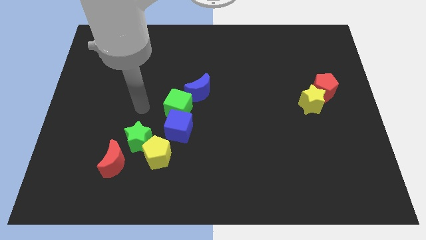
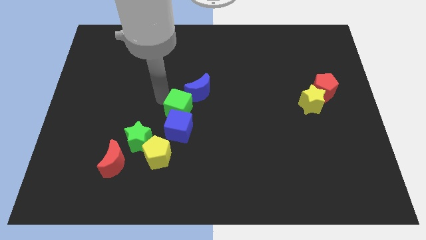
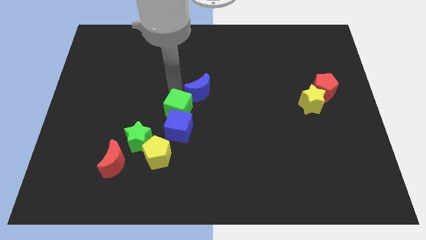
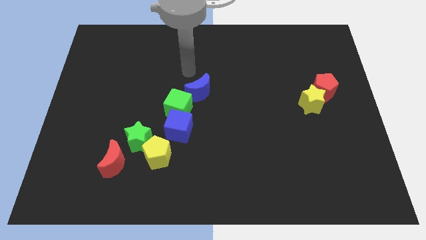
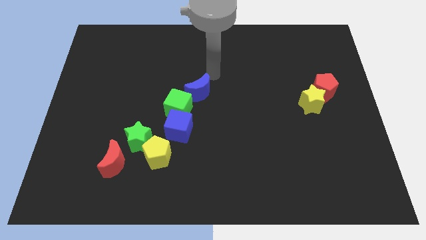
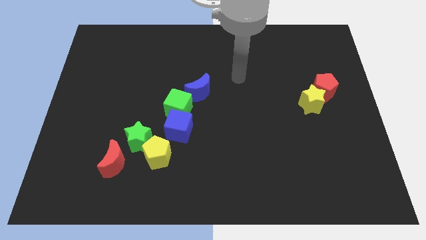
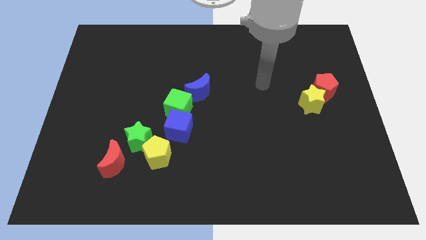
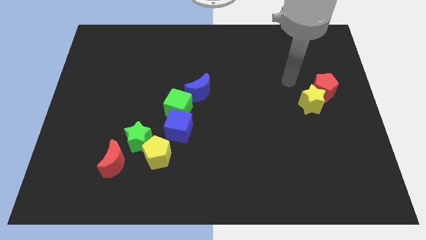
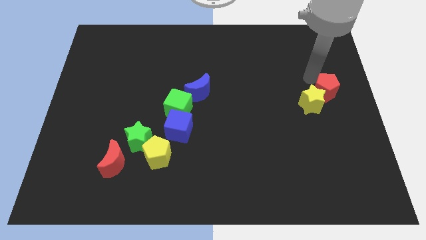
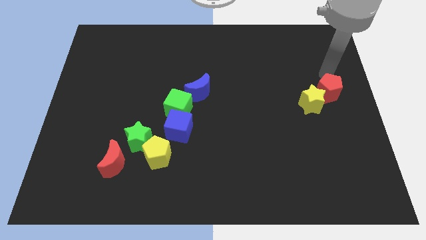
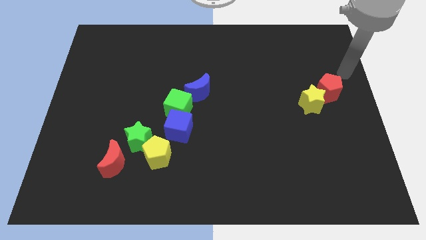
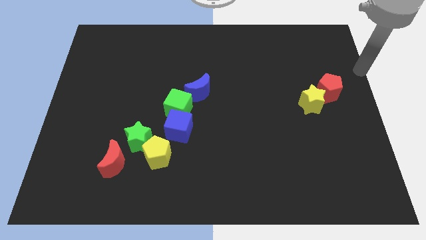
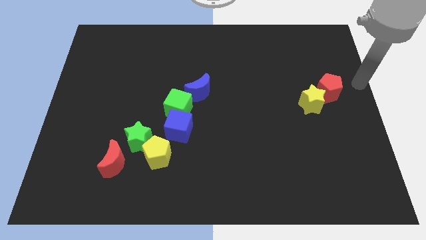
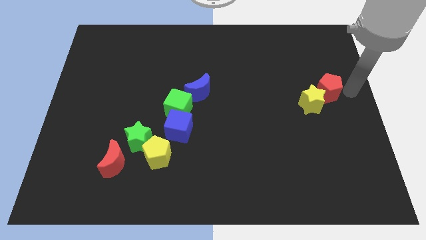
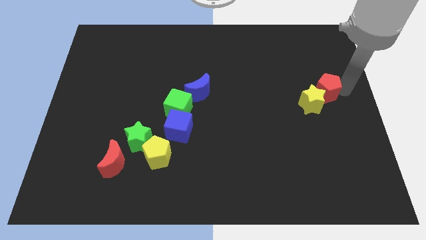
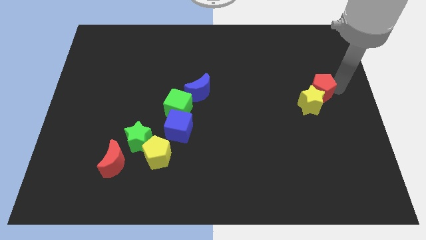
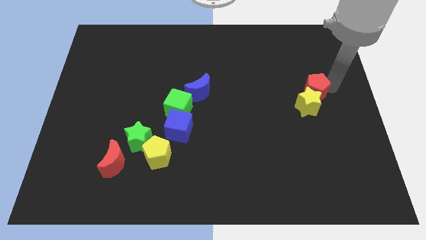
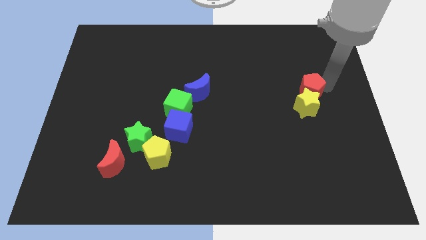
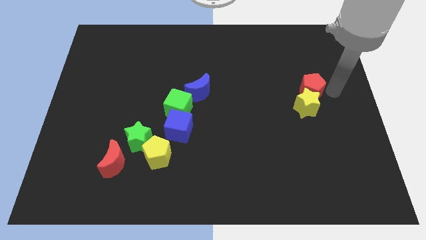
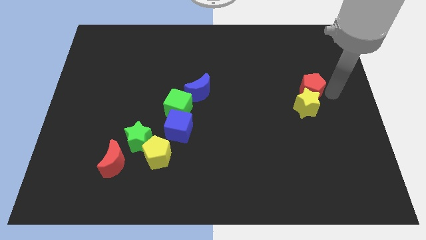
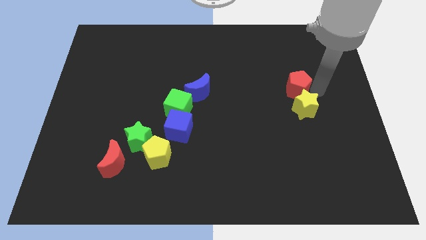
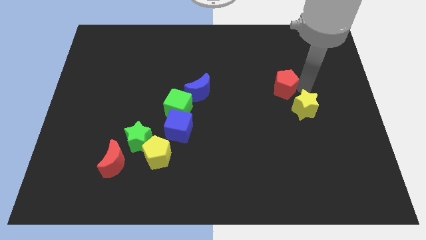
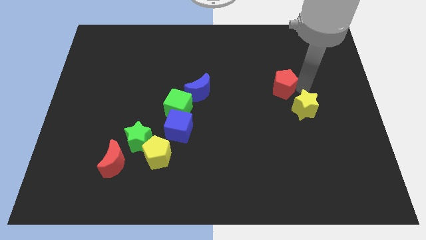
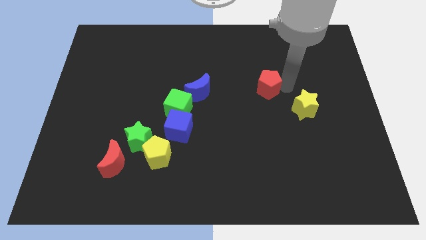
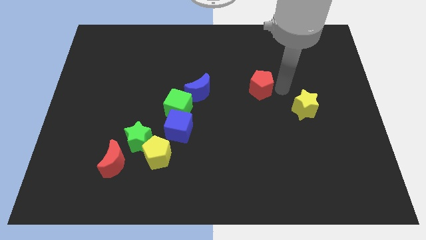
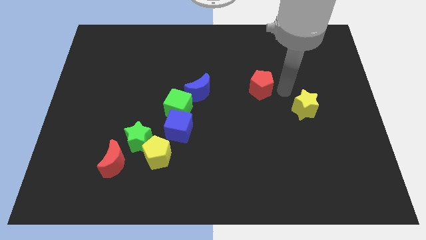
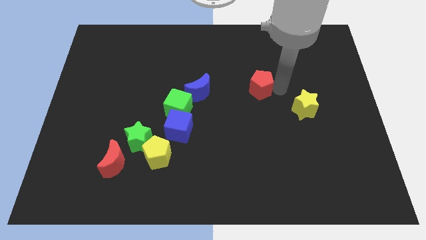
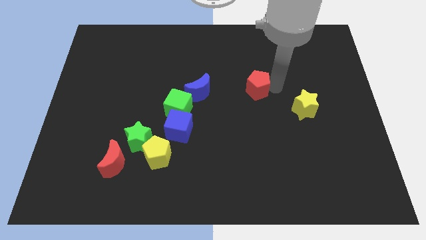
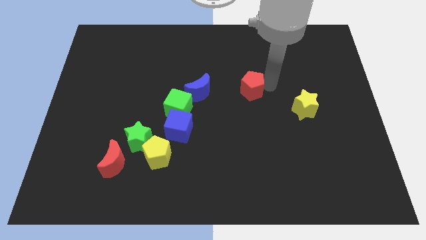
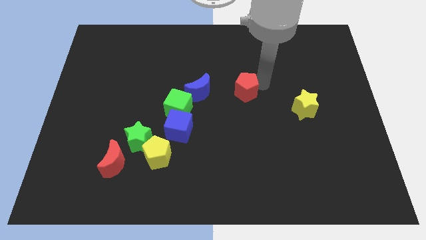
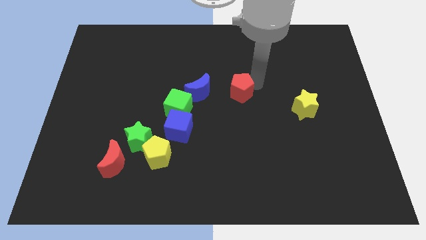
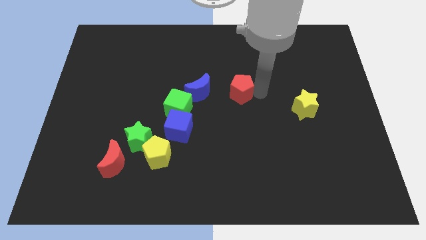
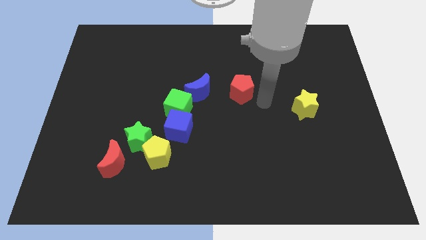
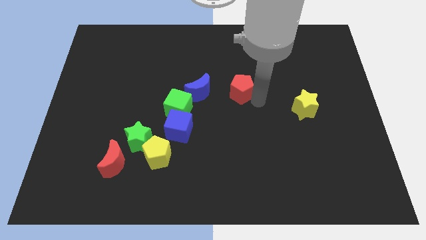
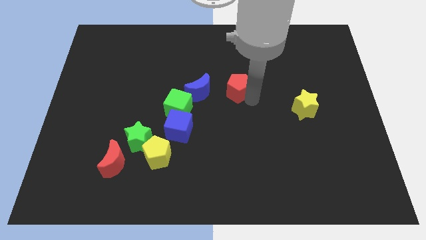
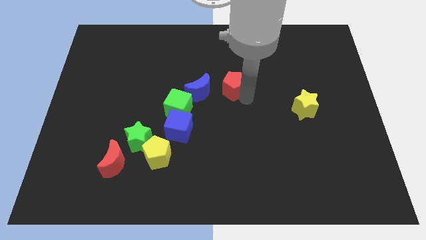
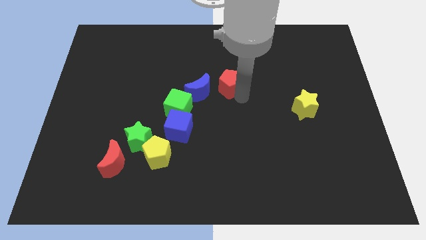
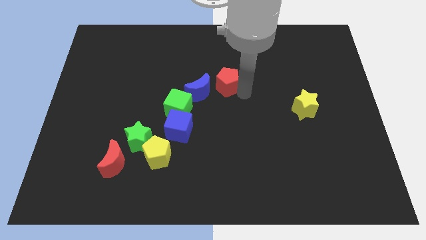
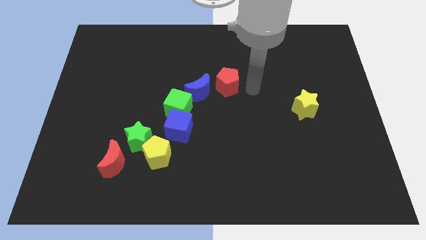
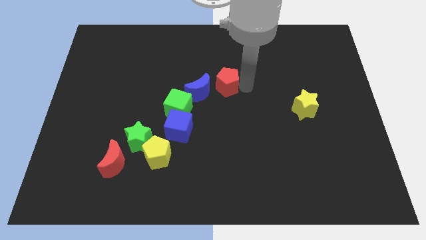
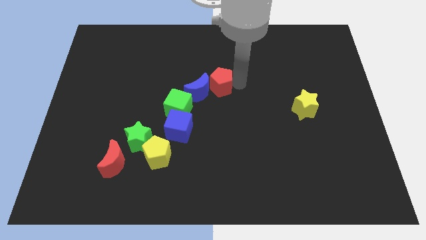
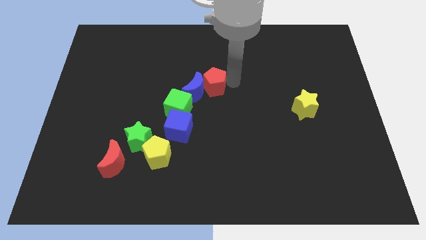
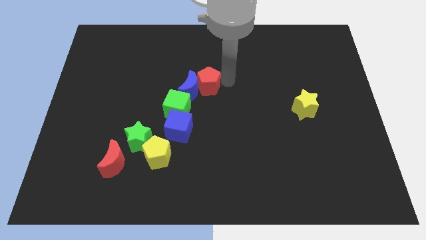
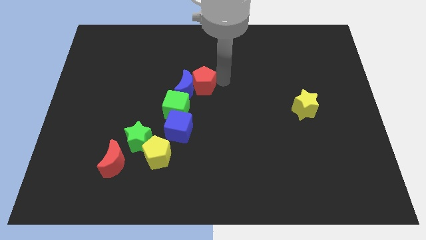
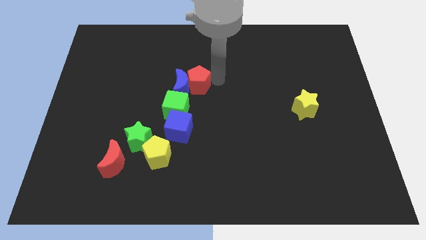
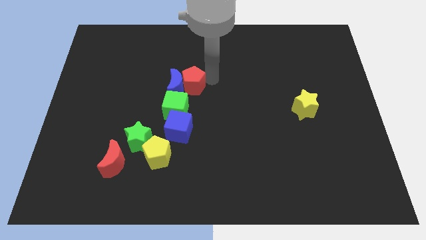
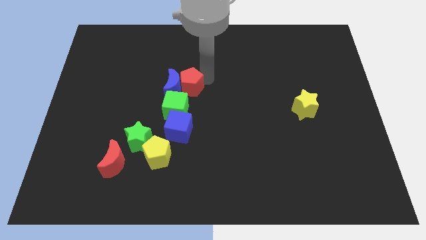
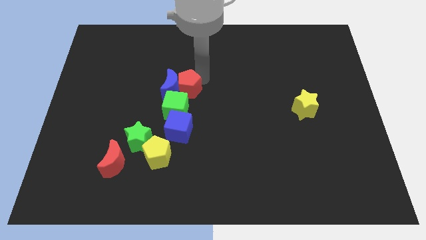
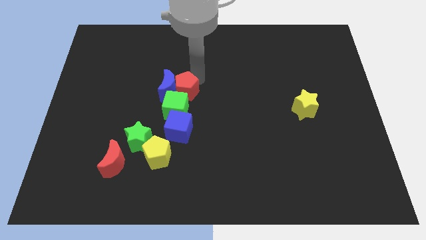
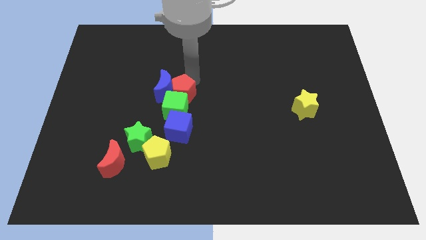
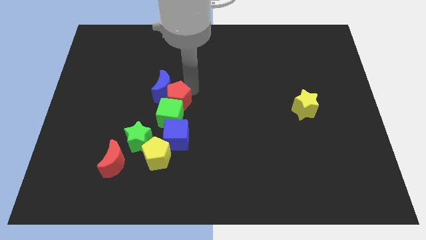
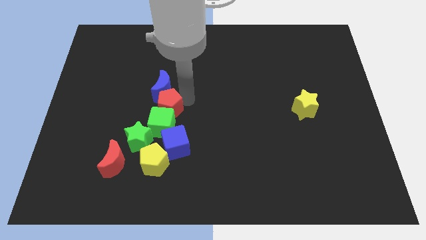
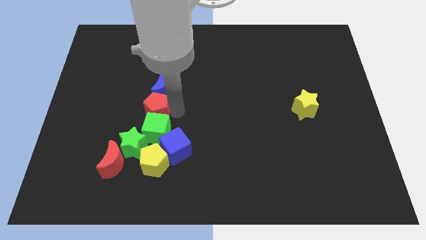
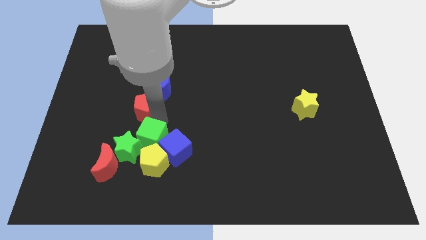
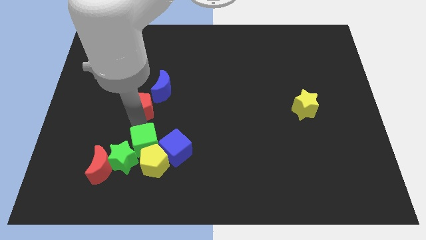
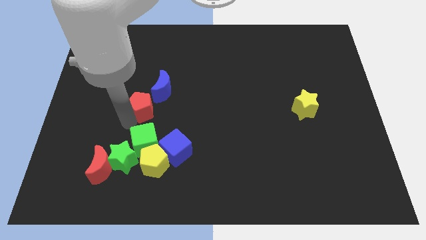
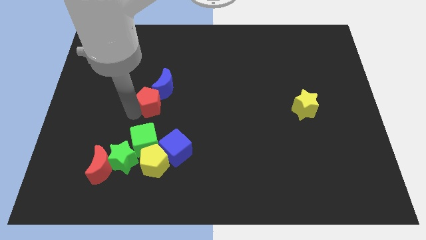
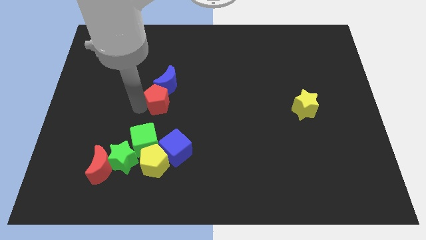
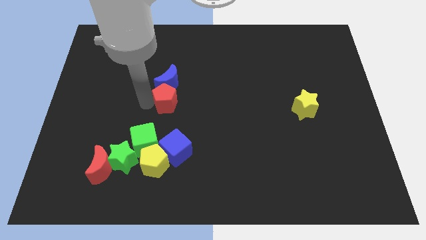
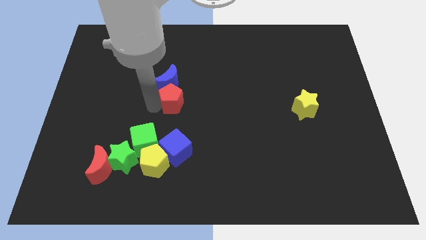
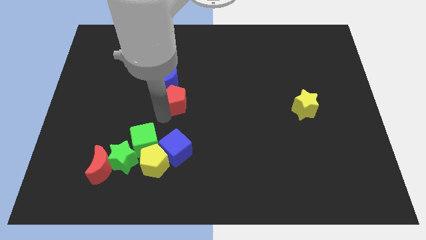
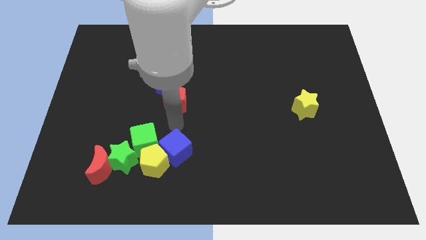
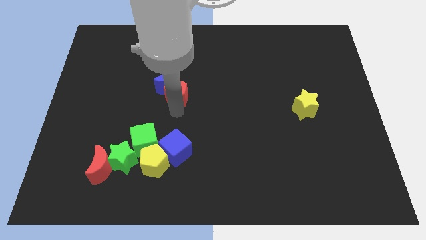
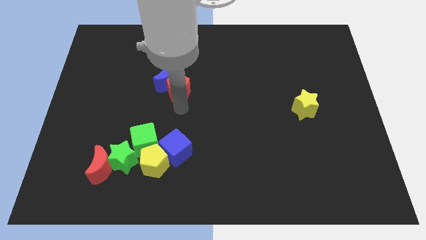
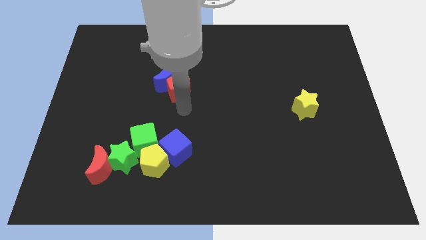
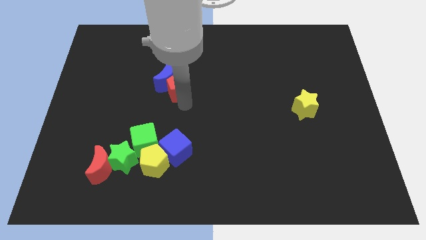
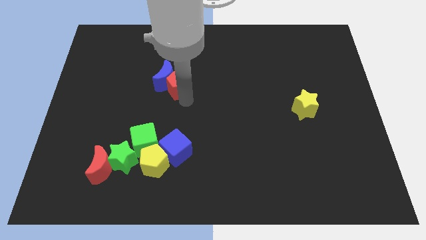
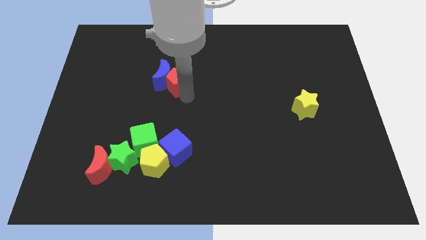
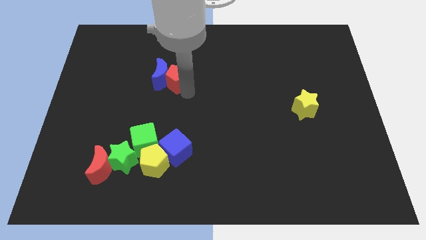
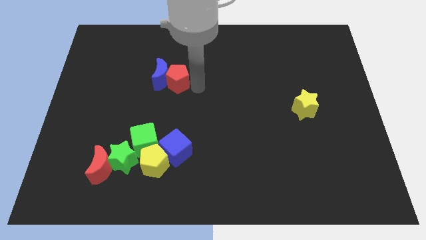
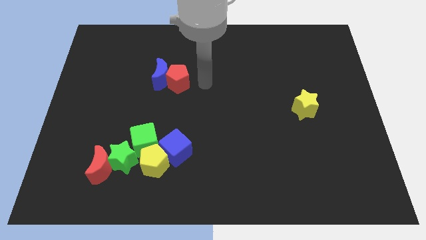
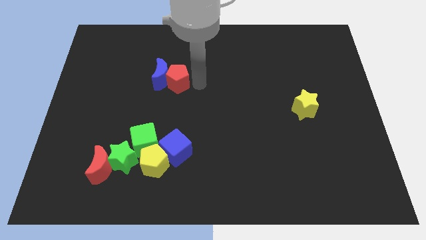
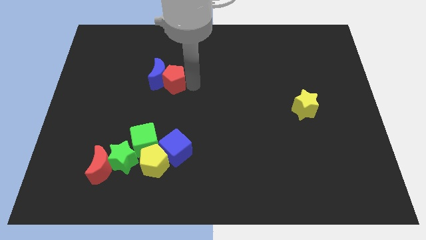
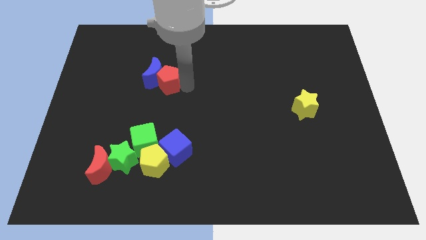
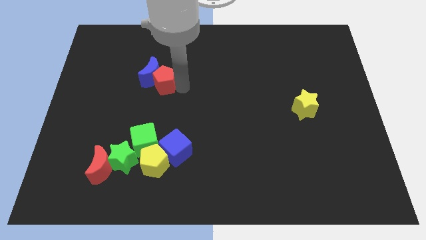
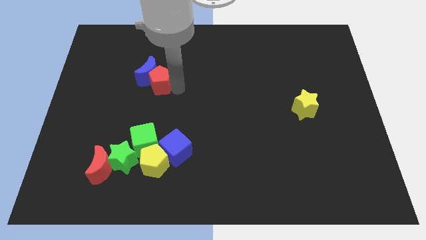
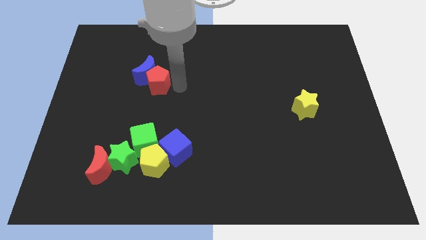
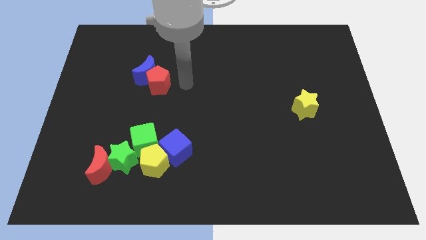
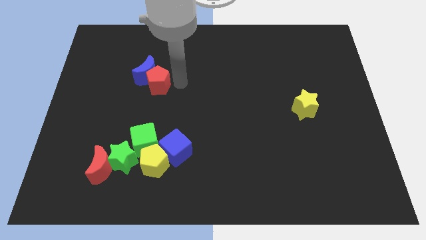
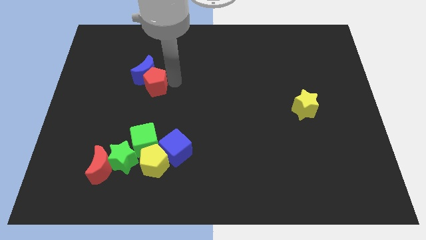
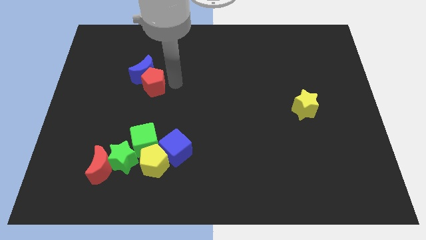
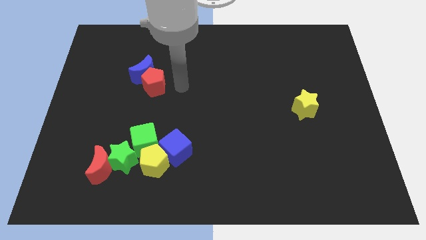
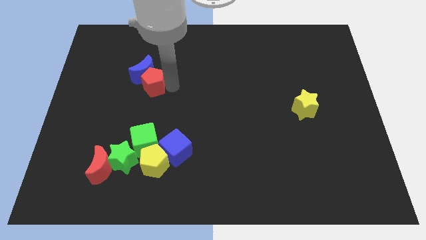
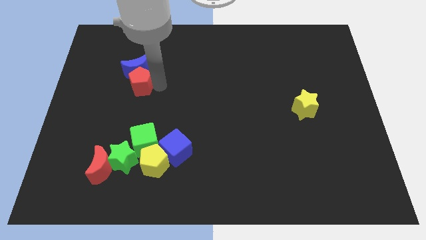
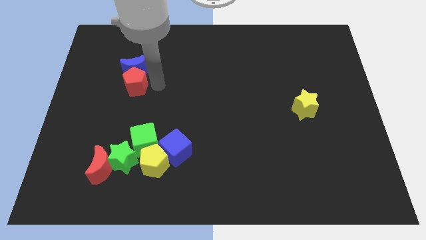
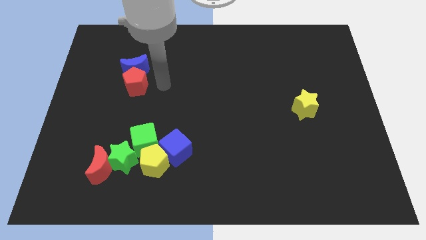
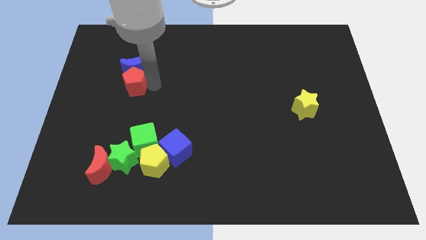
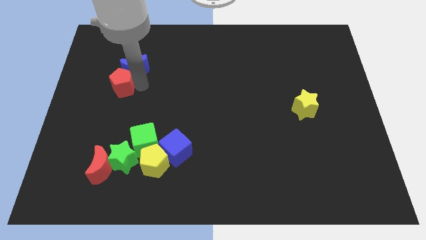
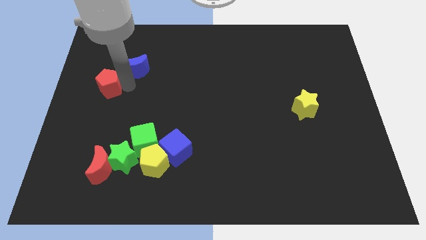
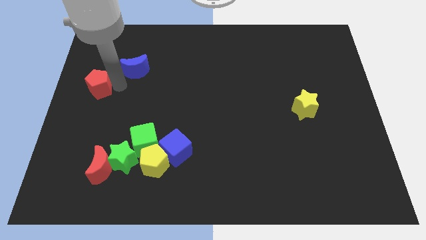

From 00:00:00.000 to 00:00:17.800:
move the red pentagon to the left side of the board
